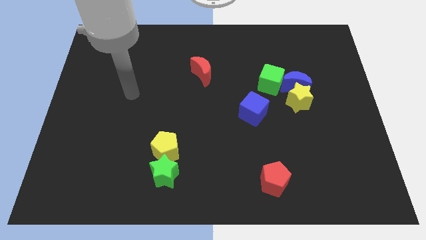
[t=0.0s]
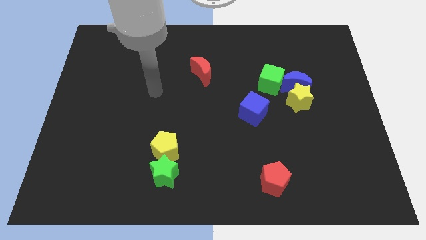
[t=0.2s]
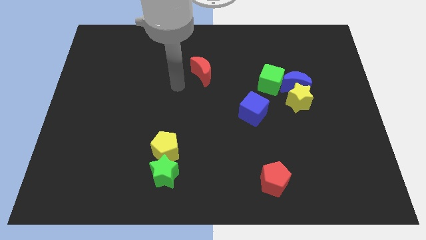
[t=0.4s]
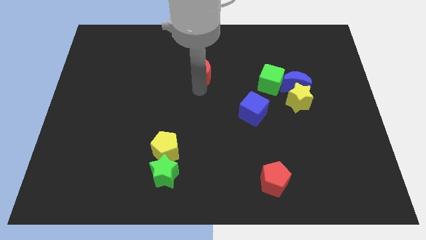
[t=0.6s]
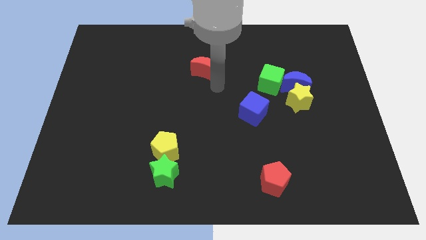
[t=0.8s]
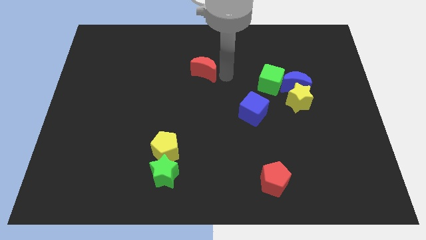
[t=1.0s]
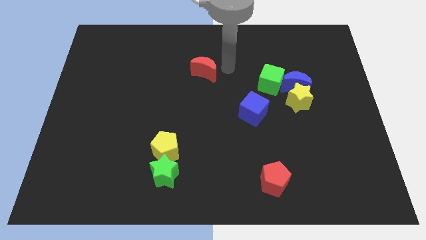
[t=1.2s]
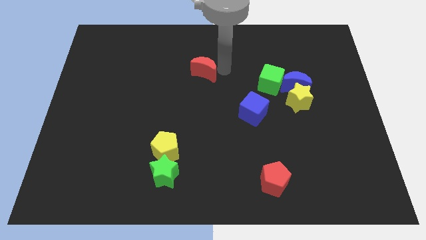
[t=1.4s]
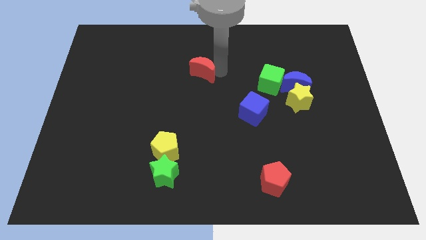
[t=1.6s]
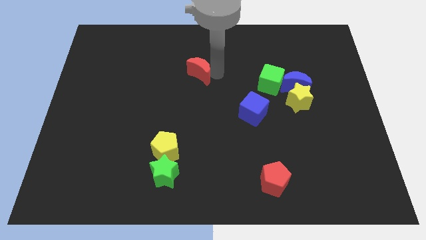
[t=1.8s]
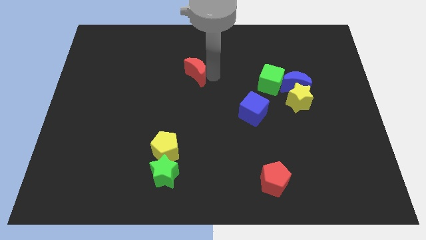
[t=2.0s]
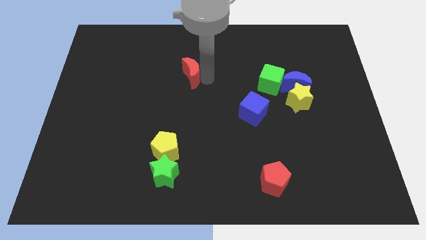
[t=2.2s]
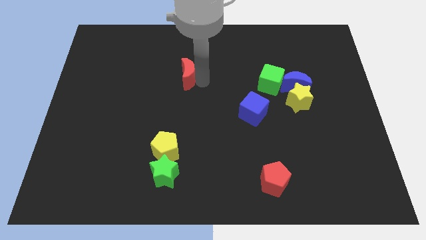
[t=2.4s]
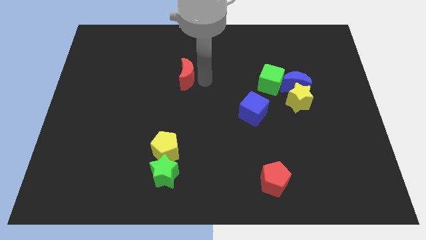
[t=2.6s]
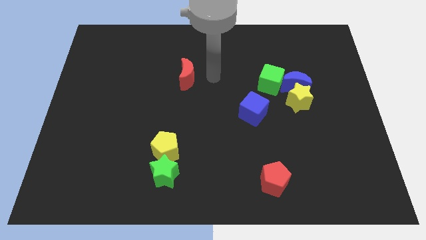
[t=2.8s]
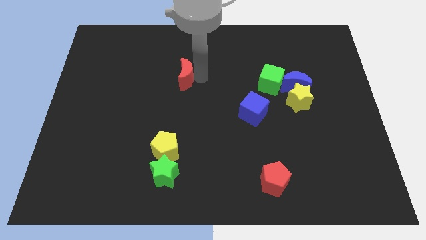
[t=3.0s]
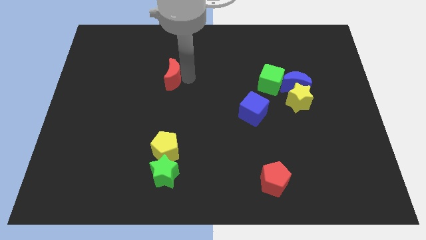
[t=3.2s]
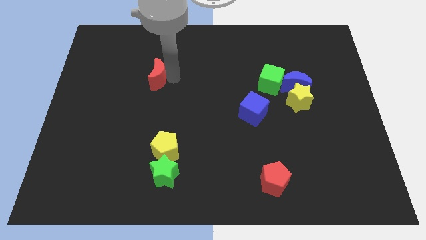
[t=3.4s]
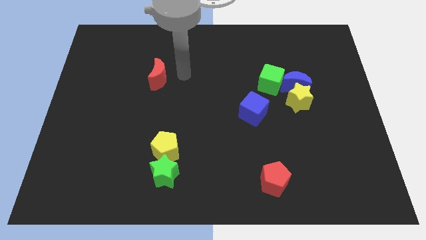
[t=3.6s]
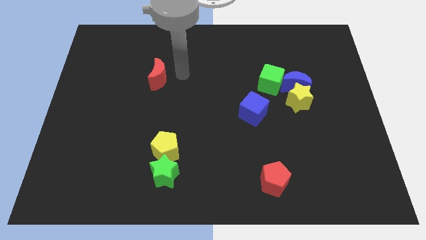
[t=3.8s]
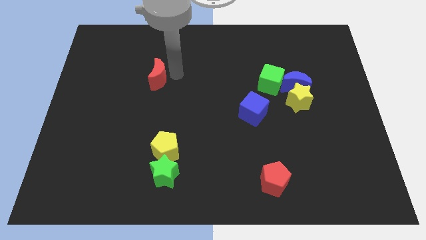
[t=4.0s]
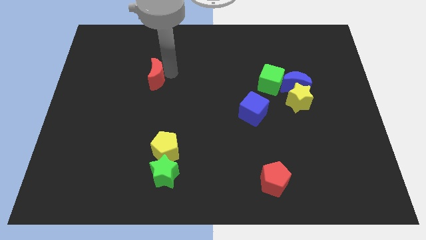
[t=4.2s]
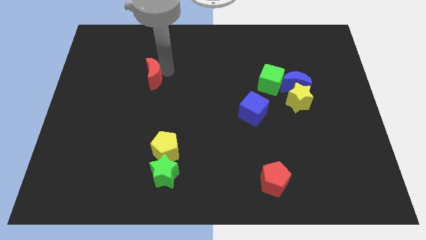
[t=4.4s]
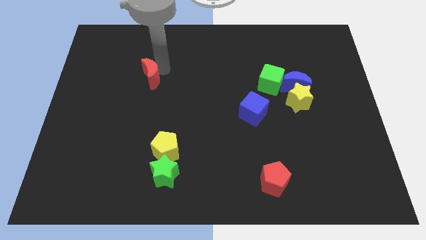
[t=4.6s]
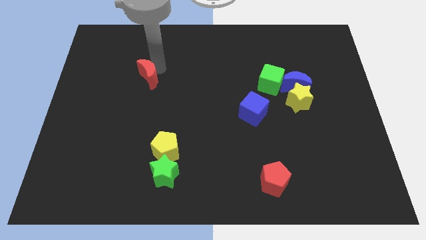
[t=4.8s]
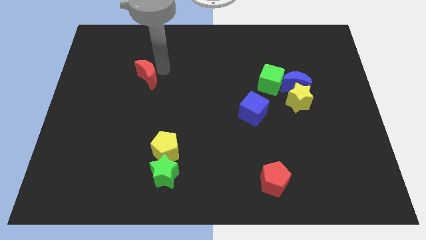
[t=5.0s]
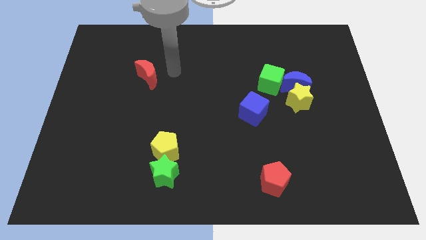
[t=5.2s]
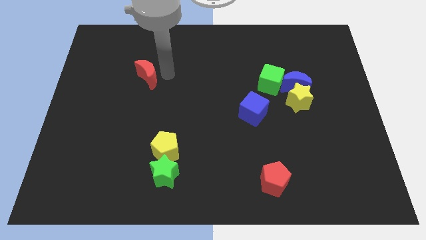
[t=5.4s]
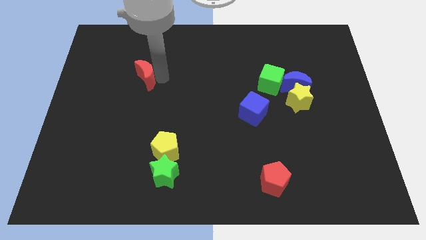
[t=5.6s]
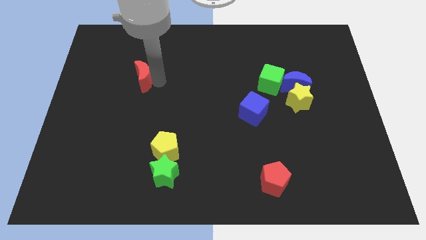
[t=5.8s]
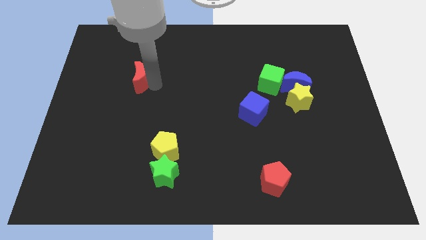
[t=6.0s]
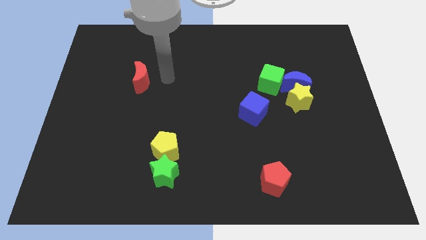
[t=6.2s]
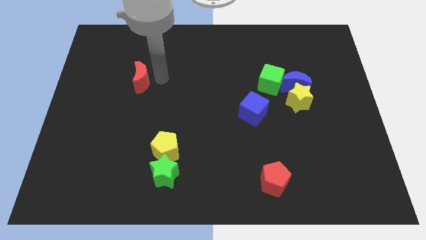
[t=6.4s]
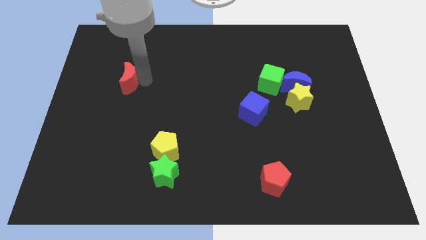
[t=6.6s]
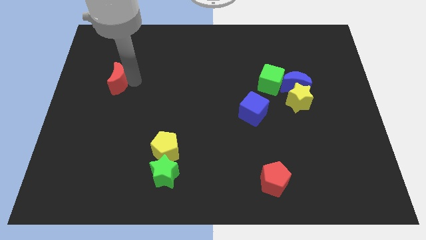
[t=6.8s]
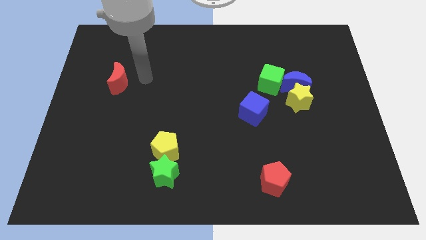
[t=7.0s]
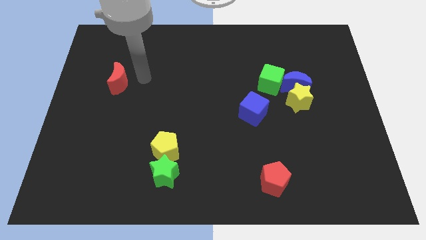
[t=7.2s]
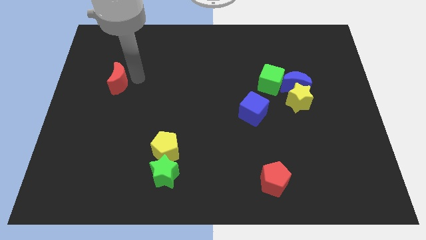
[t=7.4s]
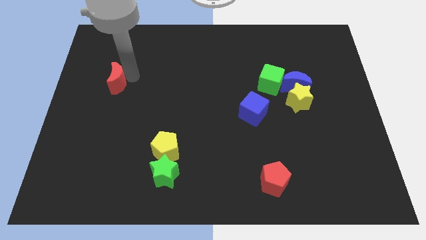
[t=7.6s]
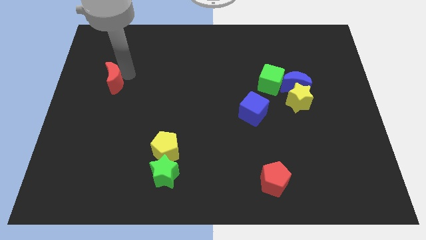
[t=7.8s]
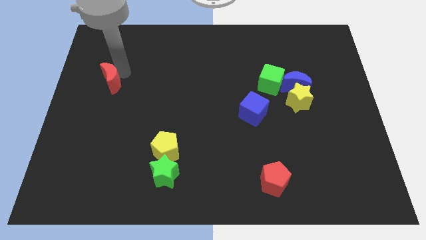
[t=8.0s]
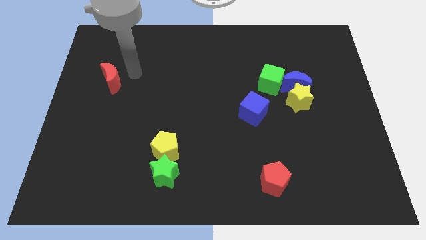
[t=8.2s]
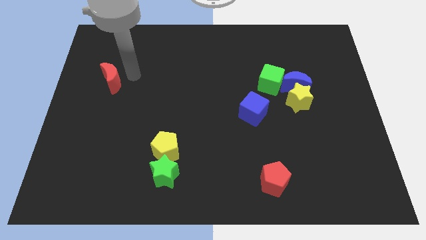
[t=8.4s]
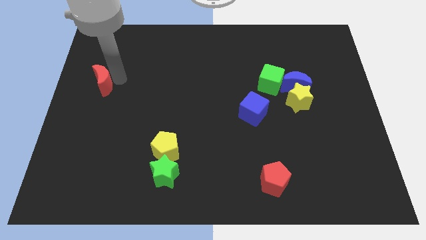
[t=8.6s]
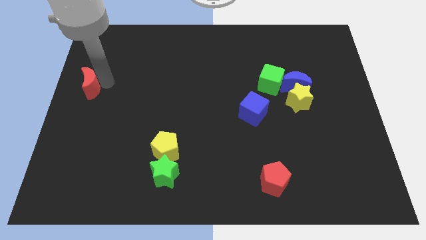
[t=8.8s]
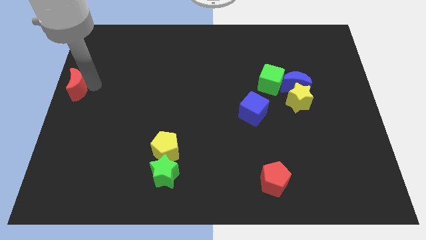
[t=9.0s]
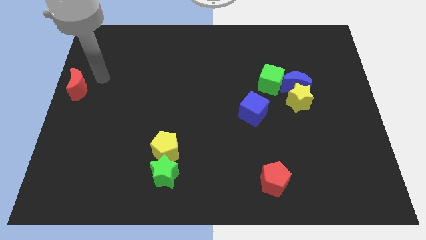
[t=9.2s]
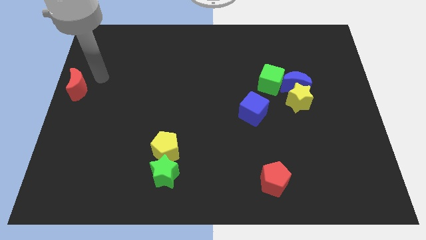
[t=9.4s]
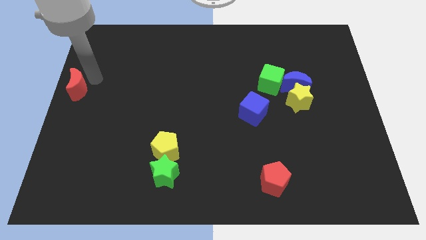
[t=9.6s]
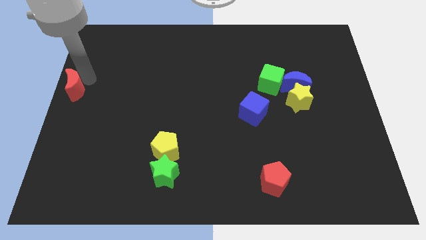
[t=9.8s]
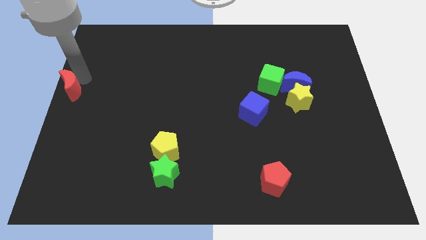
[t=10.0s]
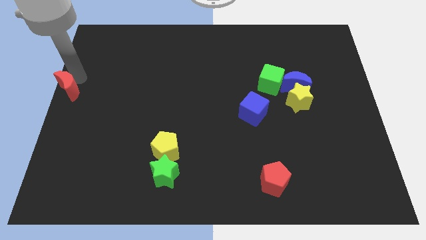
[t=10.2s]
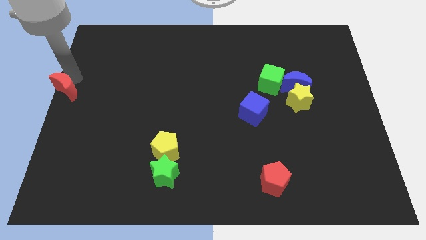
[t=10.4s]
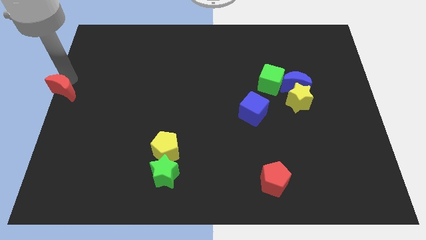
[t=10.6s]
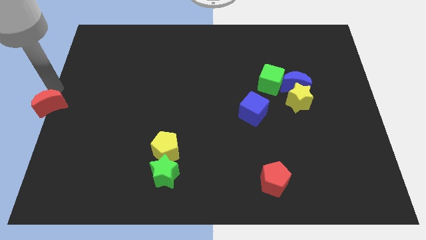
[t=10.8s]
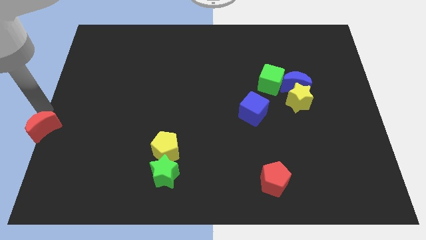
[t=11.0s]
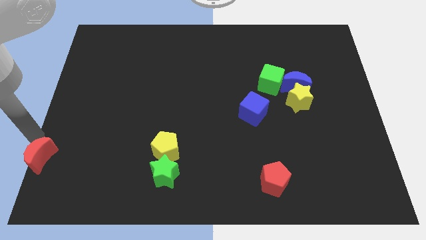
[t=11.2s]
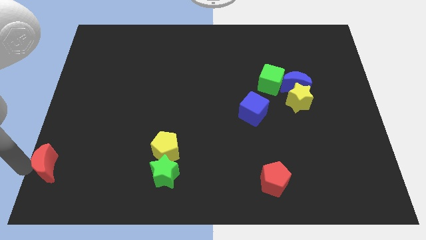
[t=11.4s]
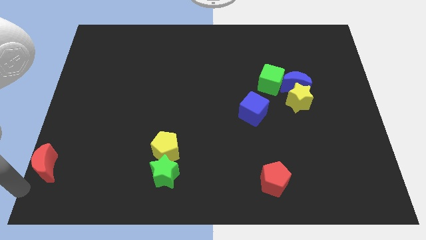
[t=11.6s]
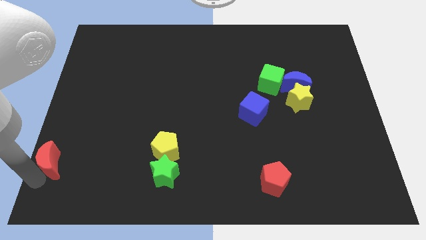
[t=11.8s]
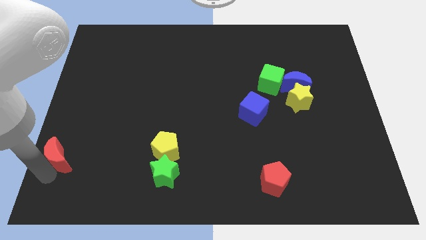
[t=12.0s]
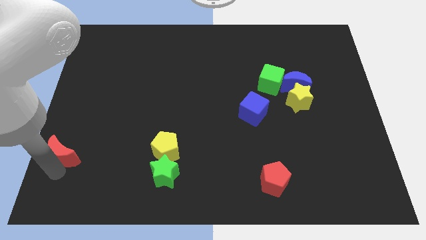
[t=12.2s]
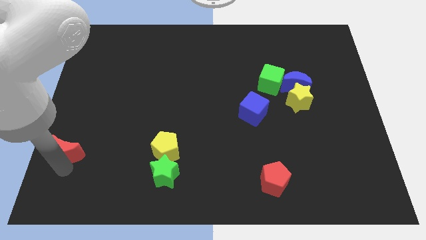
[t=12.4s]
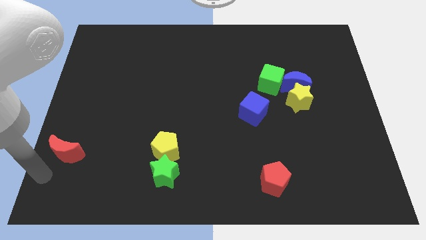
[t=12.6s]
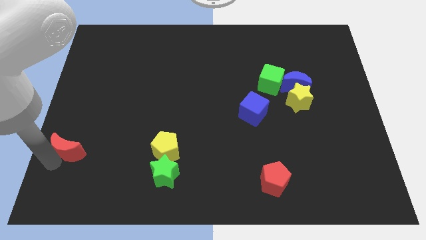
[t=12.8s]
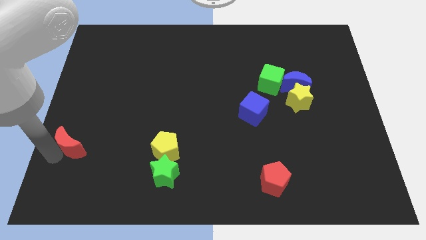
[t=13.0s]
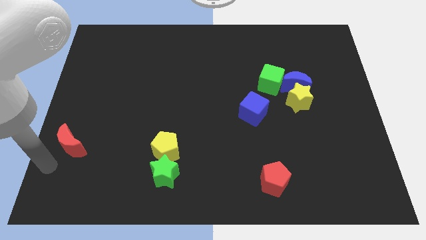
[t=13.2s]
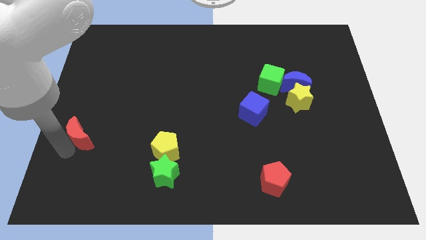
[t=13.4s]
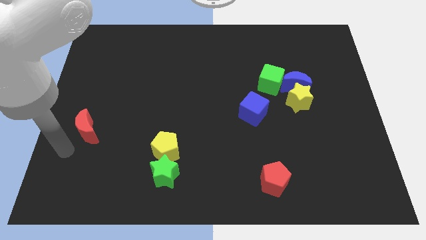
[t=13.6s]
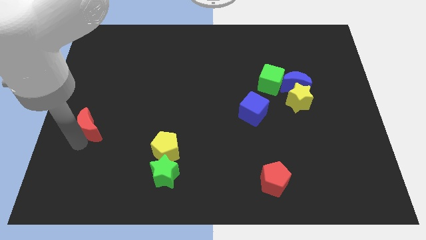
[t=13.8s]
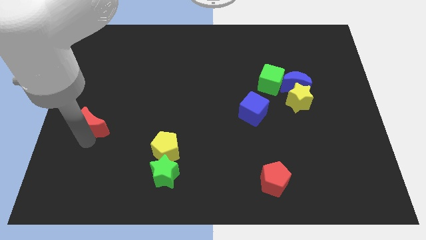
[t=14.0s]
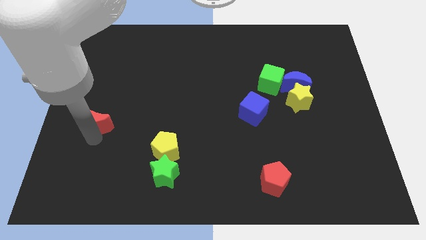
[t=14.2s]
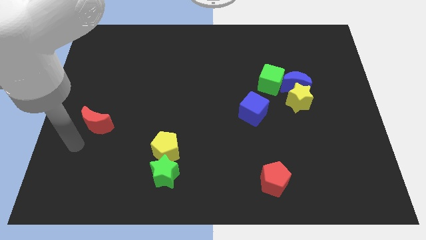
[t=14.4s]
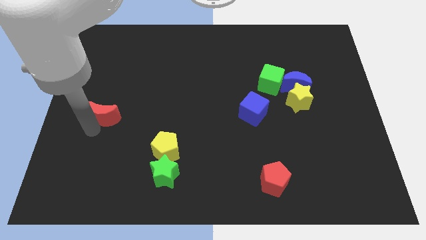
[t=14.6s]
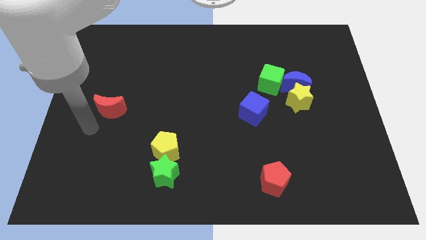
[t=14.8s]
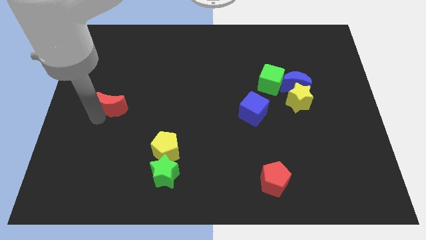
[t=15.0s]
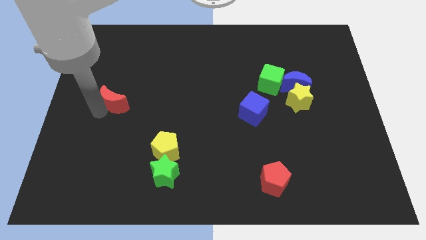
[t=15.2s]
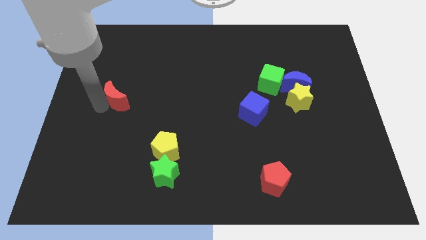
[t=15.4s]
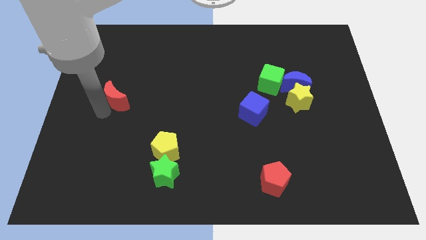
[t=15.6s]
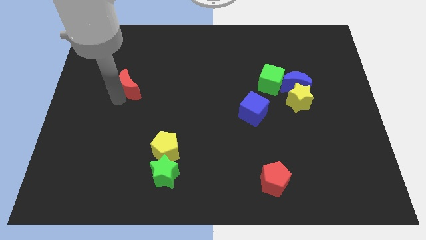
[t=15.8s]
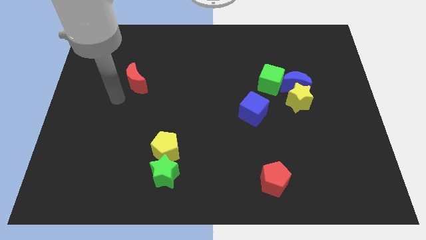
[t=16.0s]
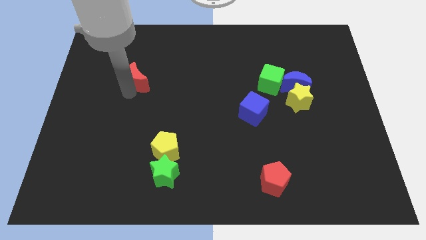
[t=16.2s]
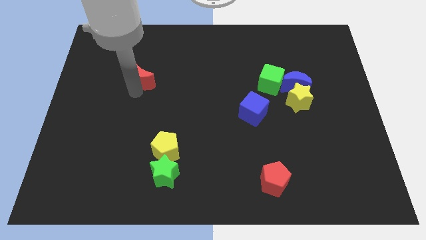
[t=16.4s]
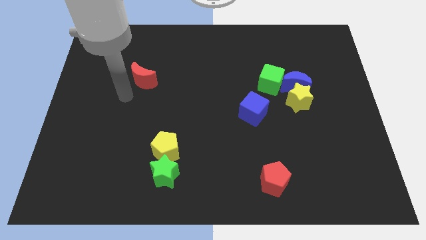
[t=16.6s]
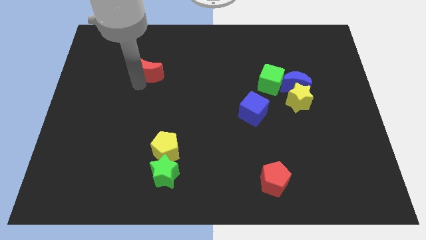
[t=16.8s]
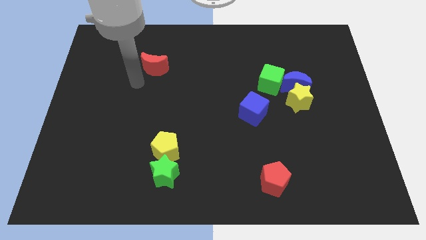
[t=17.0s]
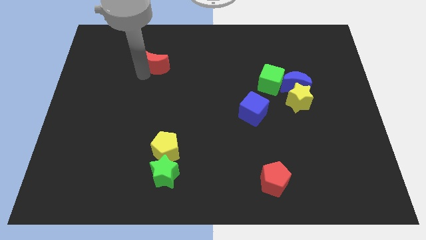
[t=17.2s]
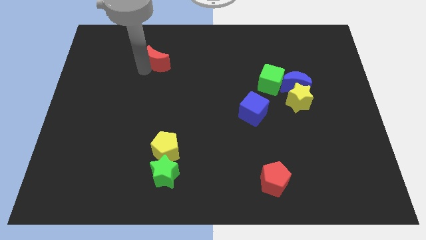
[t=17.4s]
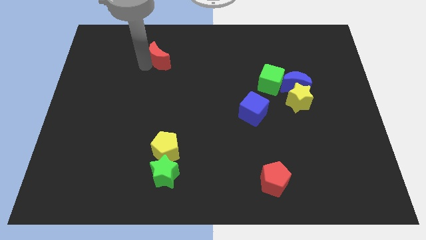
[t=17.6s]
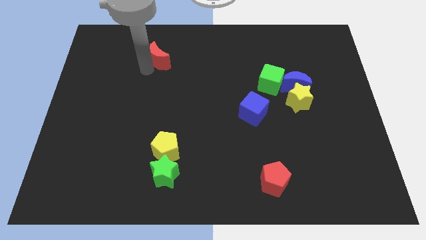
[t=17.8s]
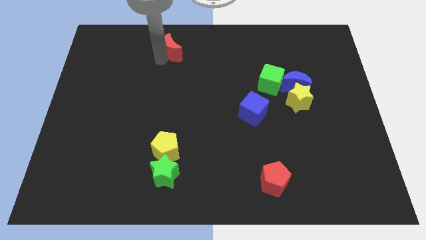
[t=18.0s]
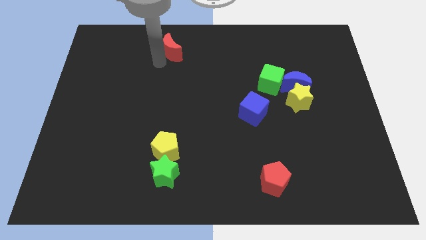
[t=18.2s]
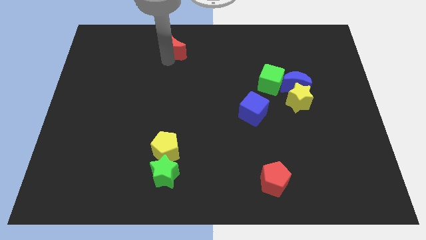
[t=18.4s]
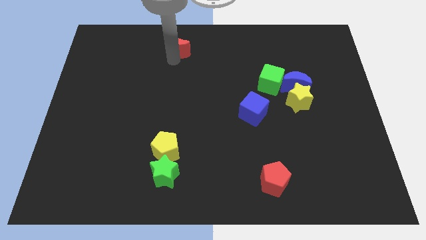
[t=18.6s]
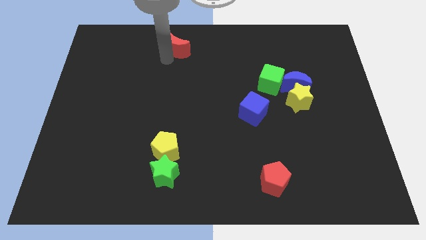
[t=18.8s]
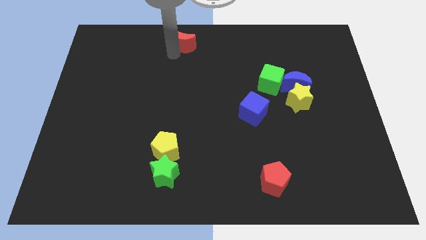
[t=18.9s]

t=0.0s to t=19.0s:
move the red moon to the top side
